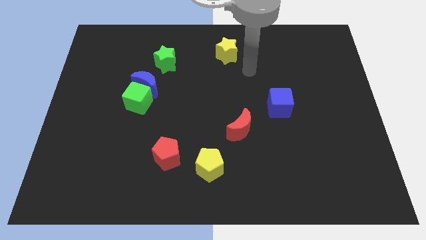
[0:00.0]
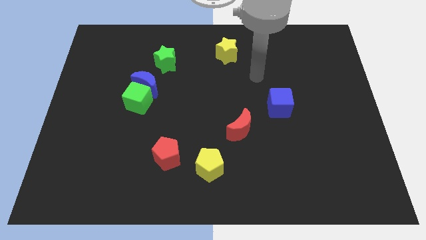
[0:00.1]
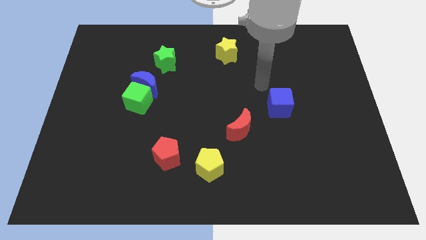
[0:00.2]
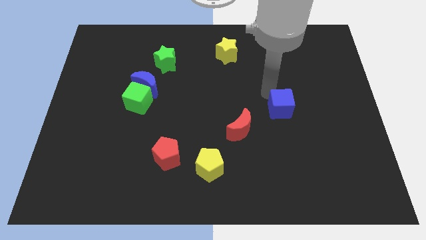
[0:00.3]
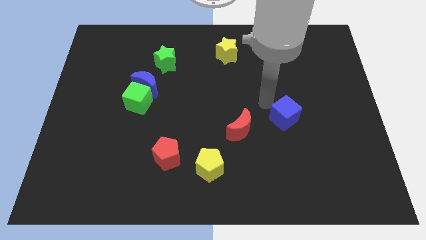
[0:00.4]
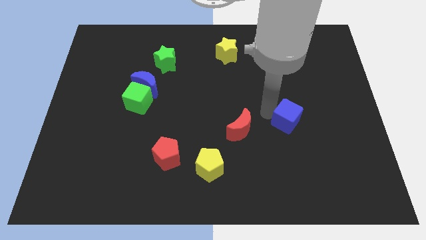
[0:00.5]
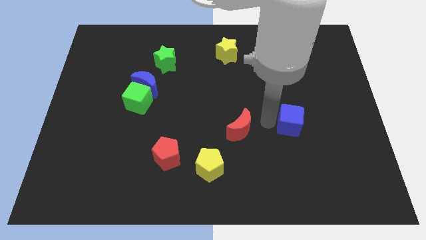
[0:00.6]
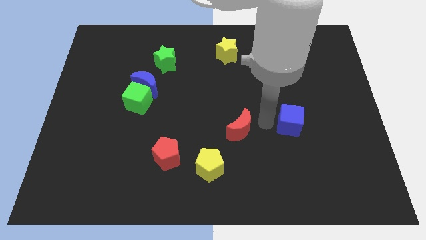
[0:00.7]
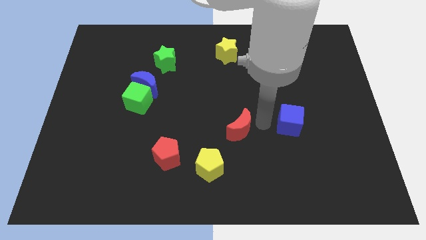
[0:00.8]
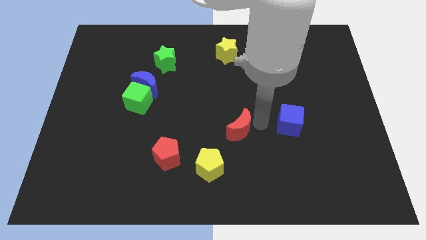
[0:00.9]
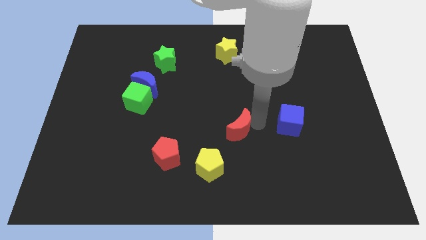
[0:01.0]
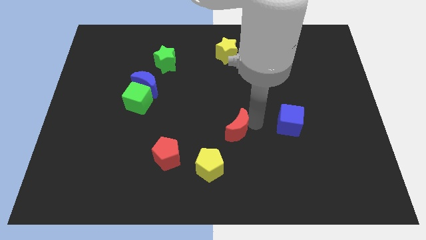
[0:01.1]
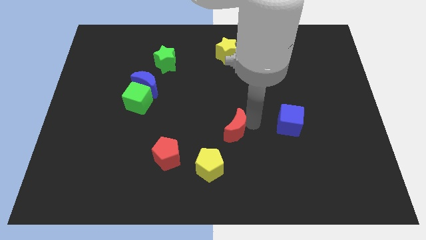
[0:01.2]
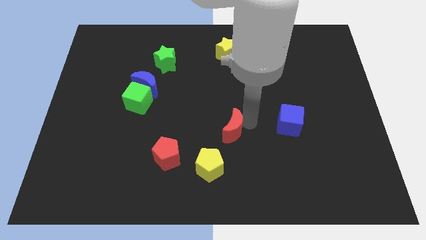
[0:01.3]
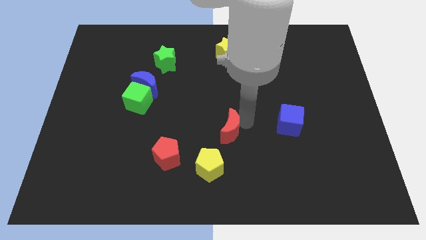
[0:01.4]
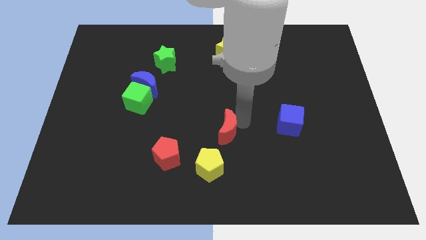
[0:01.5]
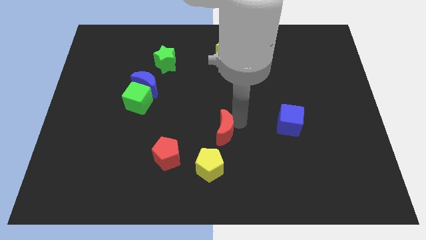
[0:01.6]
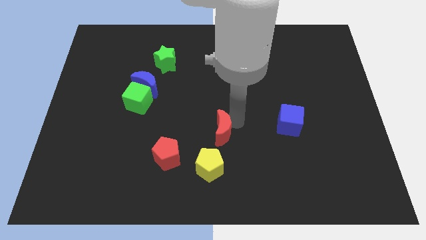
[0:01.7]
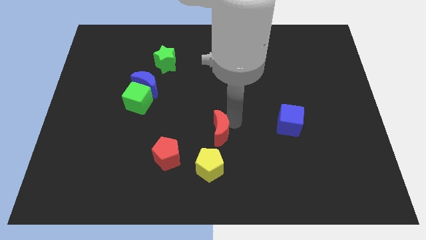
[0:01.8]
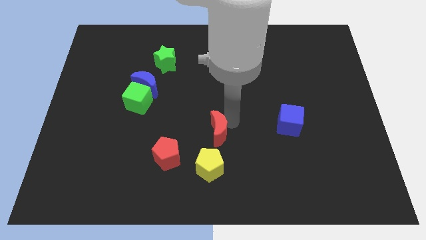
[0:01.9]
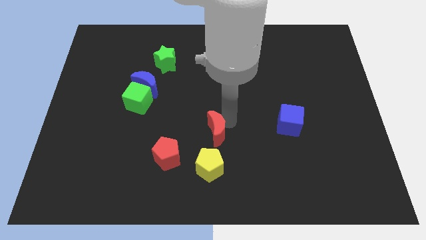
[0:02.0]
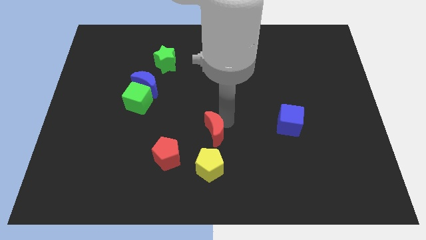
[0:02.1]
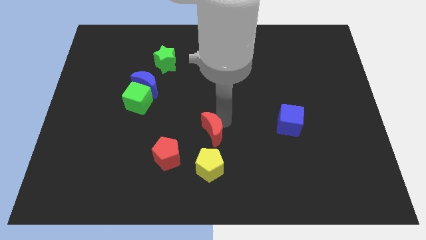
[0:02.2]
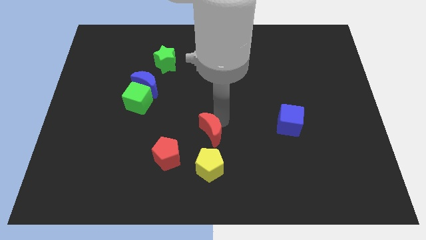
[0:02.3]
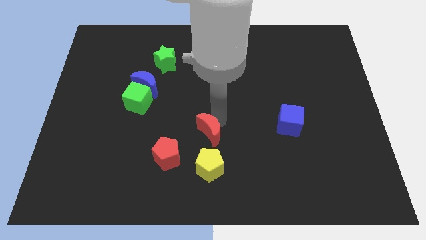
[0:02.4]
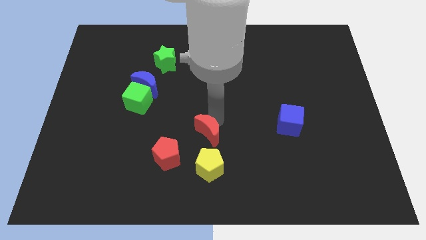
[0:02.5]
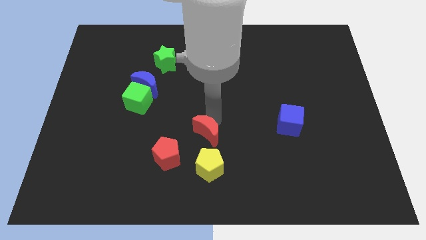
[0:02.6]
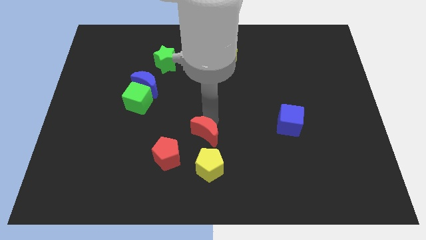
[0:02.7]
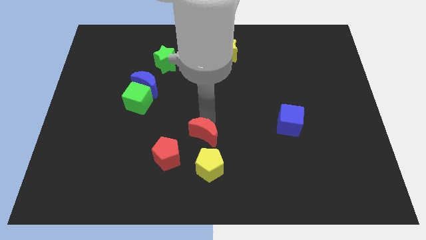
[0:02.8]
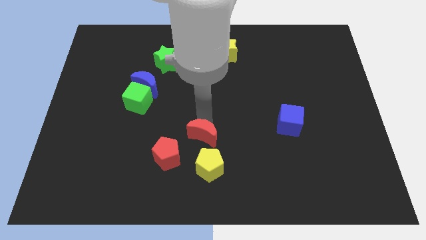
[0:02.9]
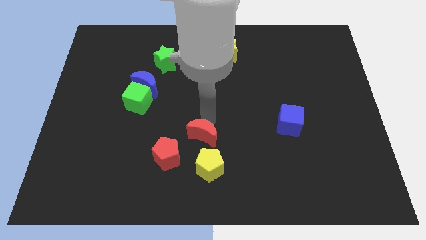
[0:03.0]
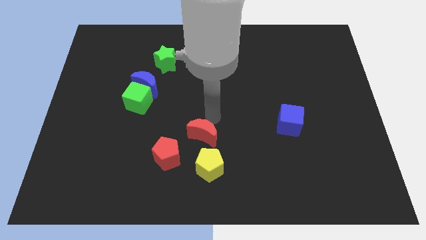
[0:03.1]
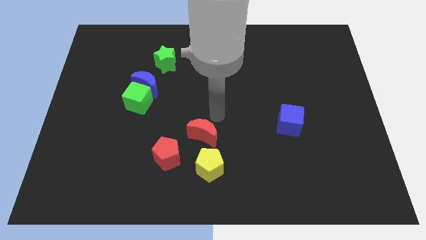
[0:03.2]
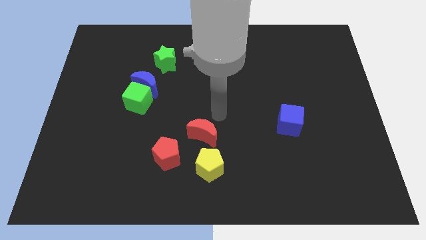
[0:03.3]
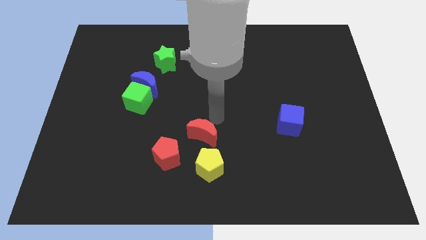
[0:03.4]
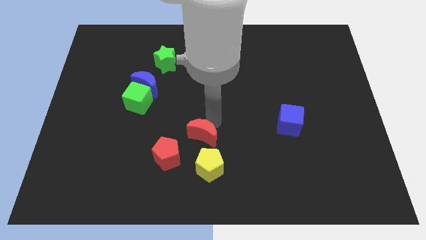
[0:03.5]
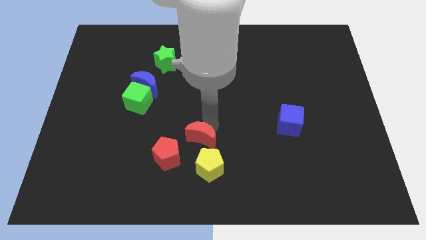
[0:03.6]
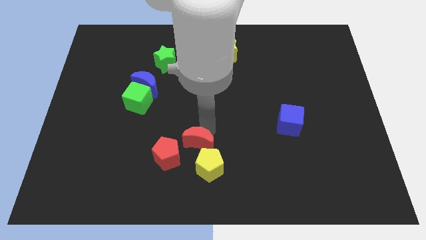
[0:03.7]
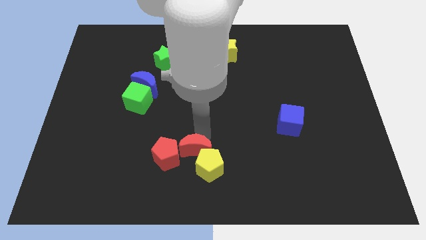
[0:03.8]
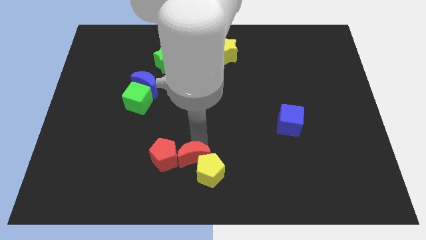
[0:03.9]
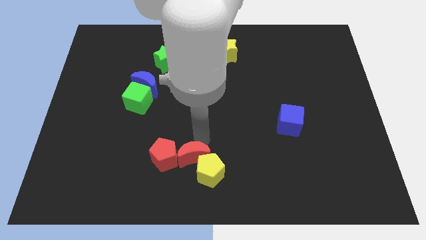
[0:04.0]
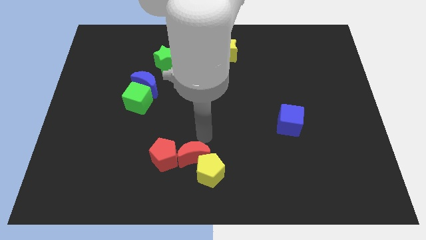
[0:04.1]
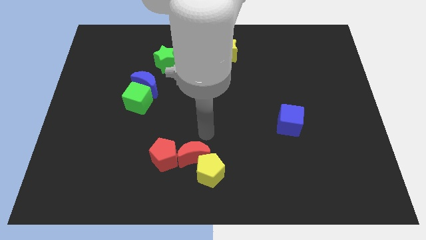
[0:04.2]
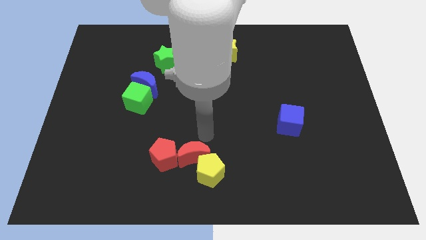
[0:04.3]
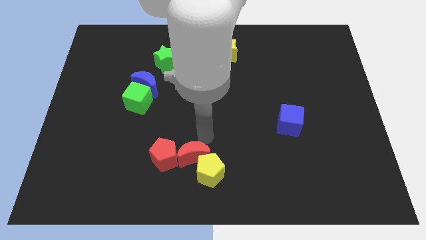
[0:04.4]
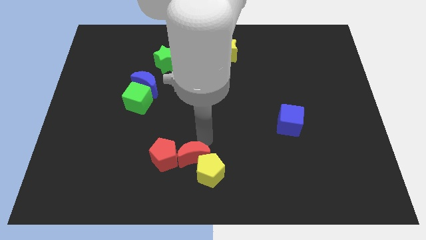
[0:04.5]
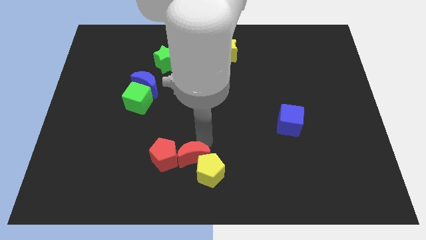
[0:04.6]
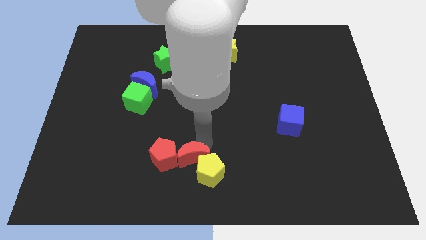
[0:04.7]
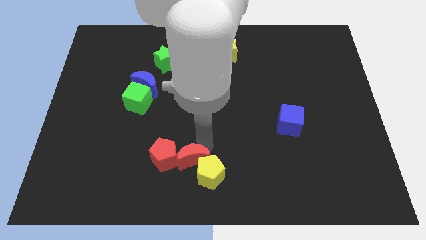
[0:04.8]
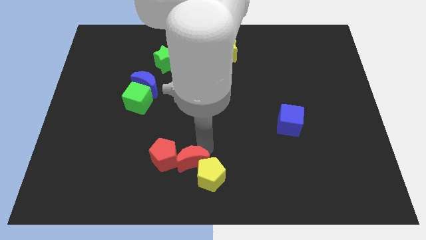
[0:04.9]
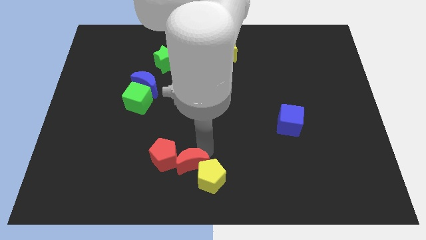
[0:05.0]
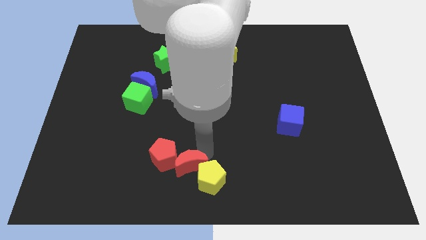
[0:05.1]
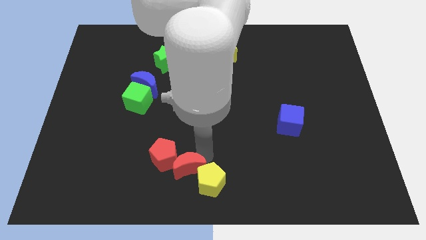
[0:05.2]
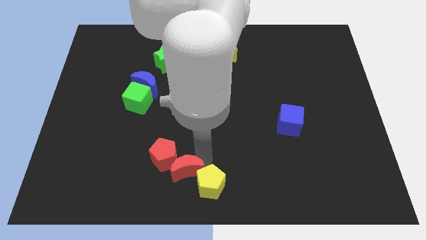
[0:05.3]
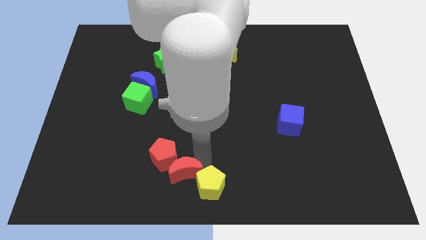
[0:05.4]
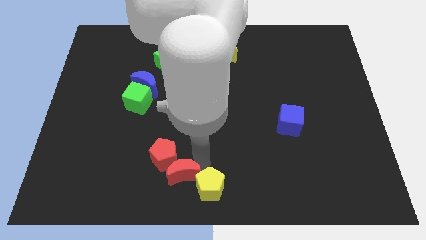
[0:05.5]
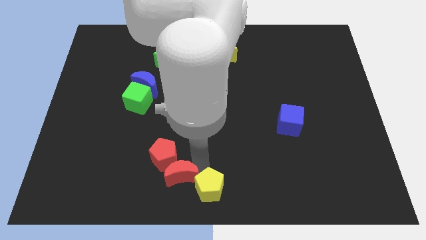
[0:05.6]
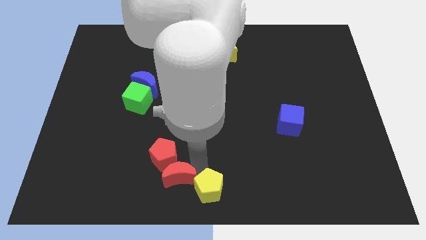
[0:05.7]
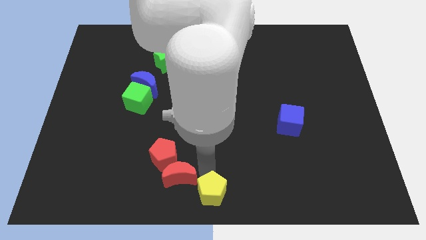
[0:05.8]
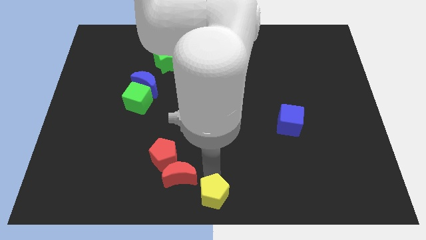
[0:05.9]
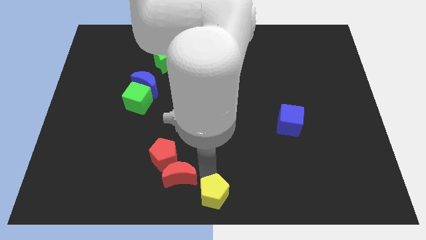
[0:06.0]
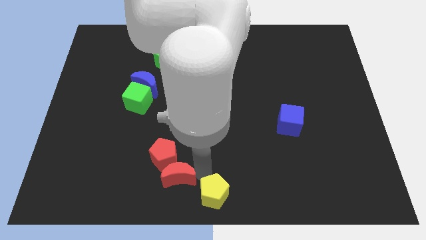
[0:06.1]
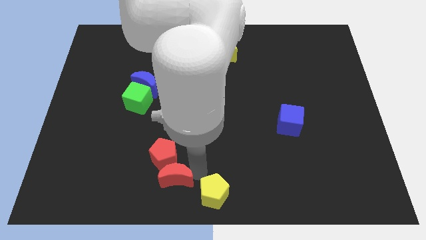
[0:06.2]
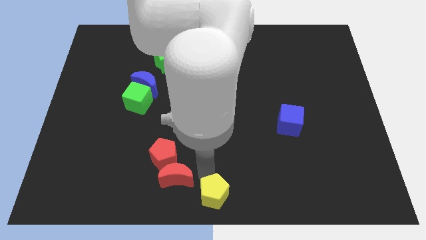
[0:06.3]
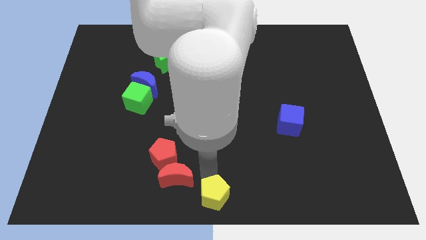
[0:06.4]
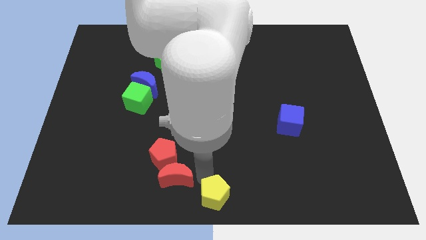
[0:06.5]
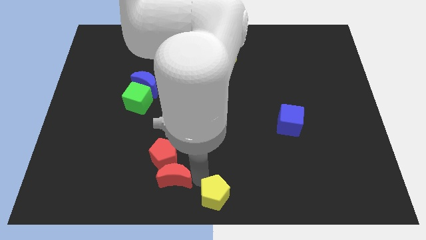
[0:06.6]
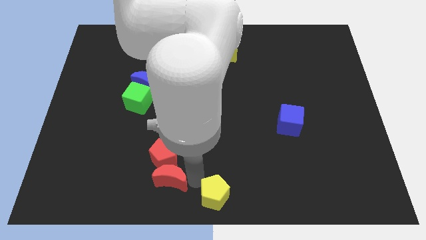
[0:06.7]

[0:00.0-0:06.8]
put the red moon to the bottom left of the red pentagon
